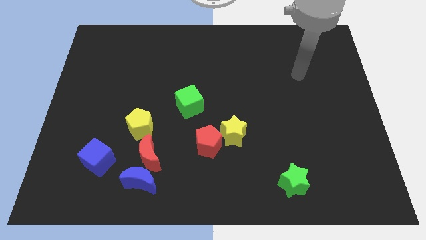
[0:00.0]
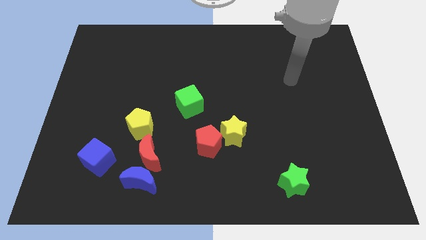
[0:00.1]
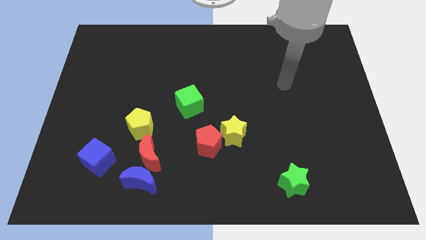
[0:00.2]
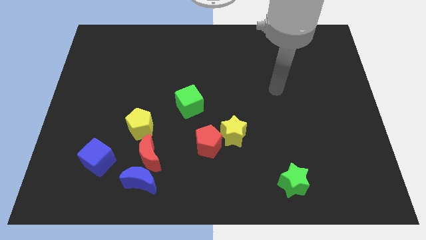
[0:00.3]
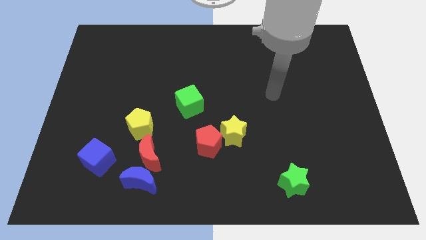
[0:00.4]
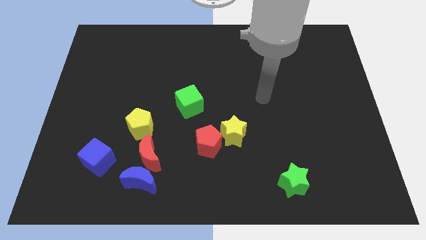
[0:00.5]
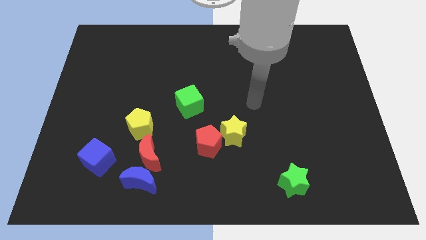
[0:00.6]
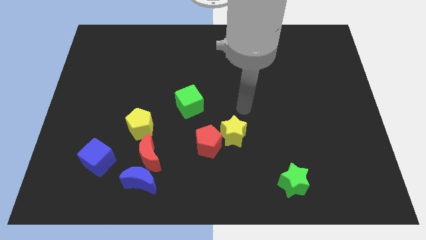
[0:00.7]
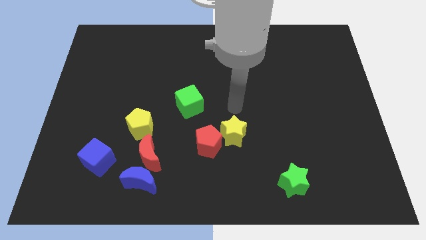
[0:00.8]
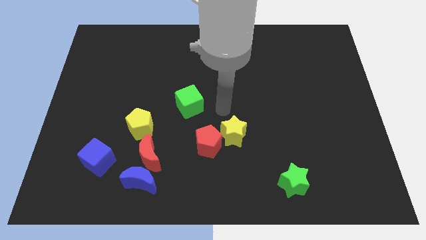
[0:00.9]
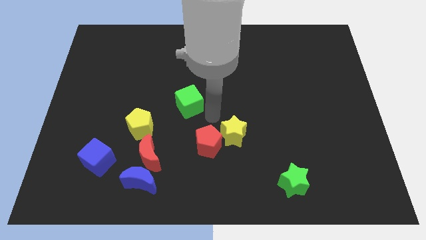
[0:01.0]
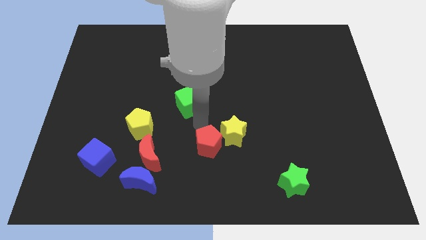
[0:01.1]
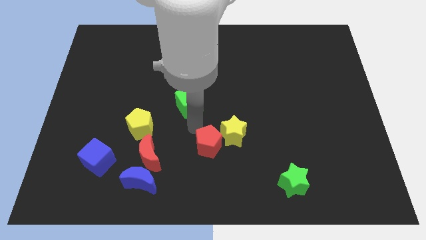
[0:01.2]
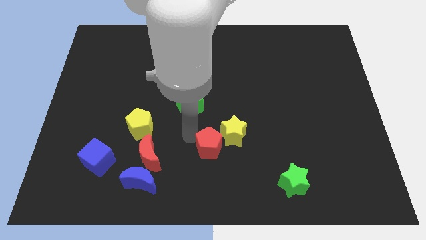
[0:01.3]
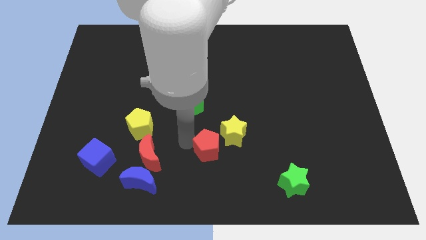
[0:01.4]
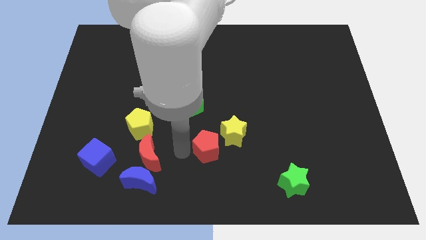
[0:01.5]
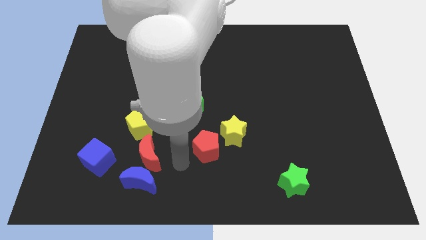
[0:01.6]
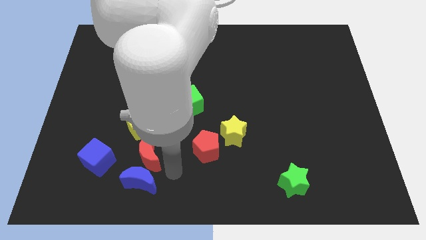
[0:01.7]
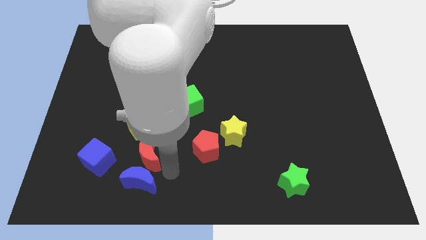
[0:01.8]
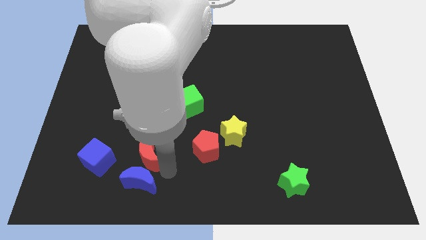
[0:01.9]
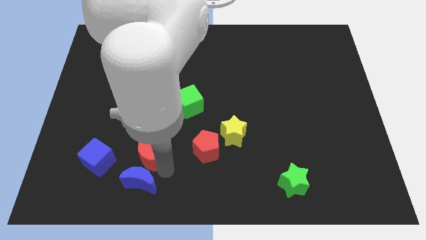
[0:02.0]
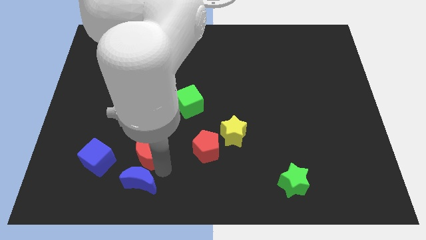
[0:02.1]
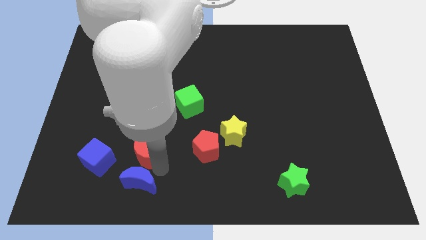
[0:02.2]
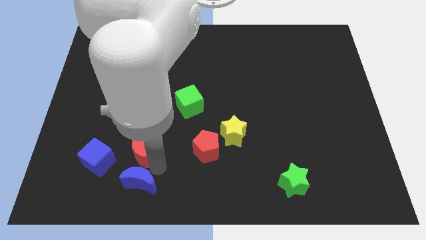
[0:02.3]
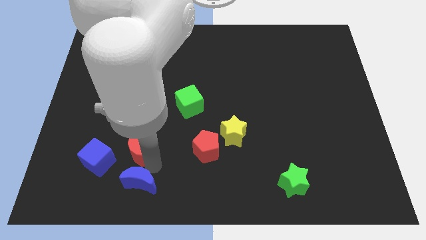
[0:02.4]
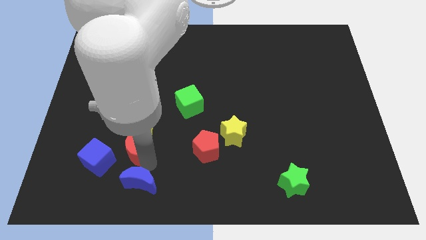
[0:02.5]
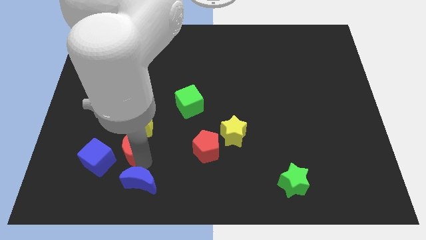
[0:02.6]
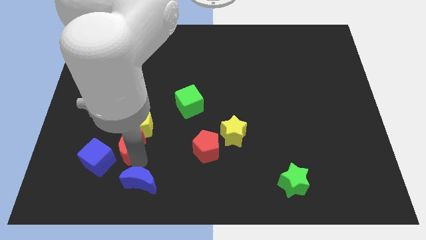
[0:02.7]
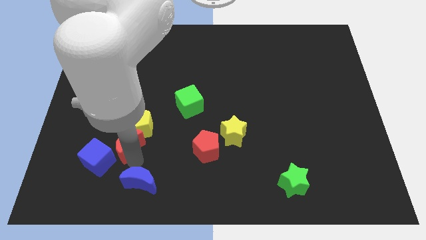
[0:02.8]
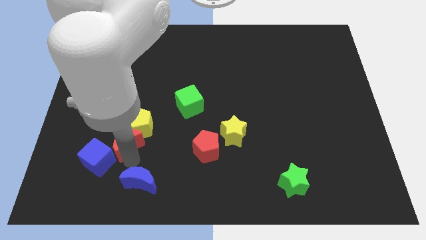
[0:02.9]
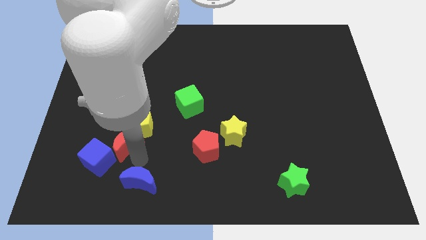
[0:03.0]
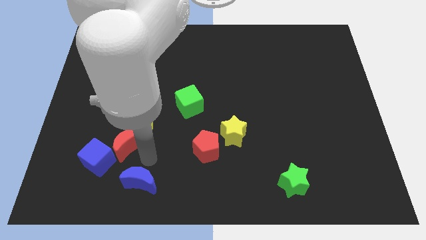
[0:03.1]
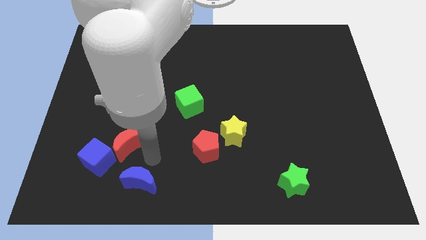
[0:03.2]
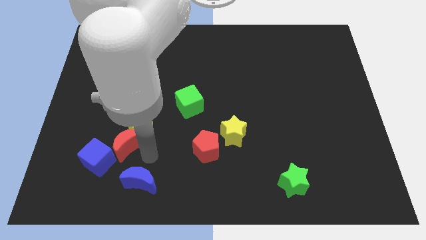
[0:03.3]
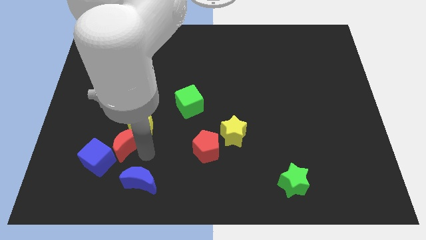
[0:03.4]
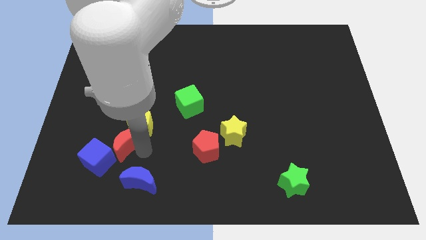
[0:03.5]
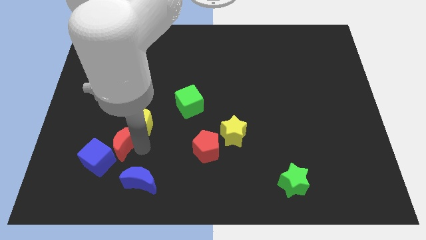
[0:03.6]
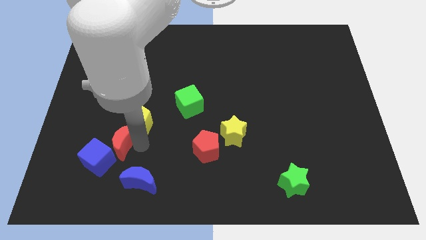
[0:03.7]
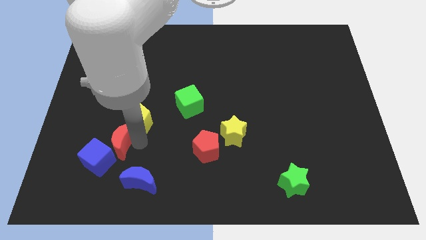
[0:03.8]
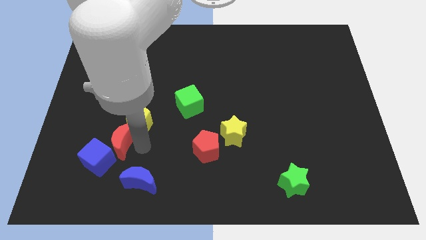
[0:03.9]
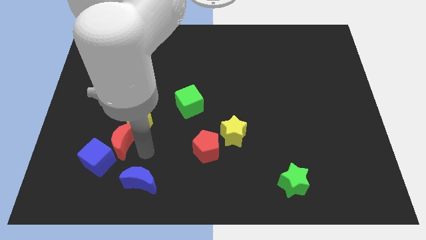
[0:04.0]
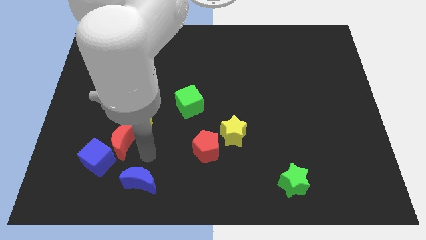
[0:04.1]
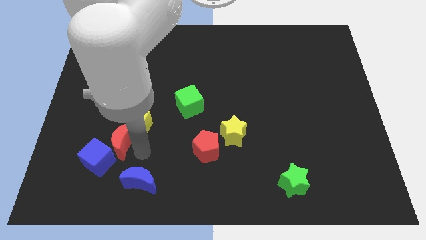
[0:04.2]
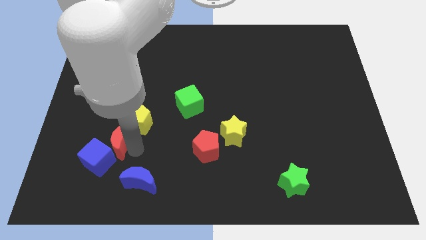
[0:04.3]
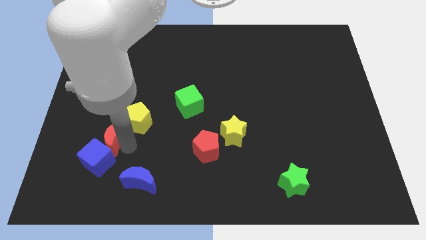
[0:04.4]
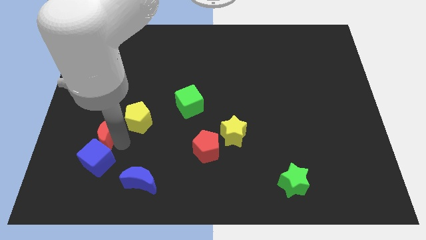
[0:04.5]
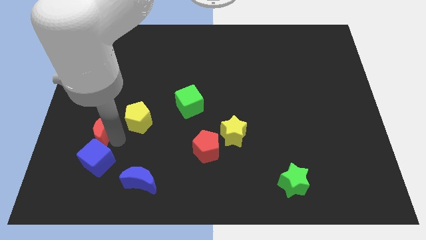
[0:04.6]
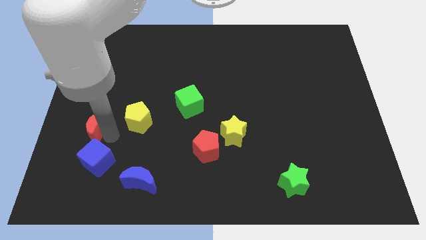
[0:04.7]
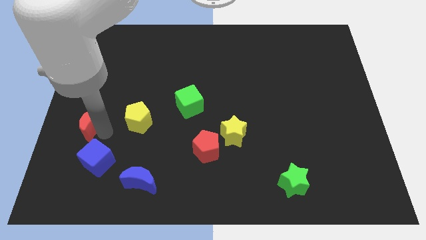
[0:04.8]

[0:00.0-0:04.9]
put the red moon to the center left

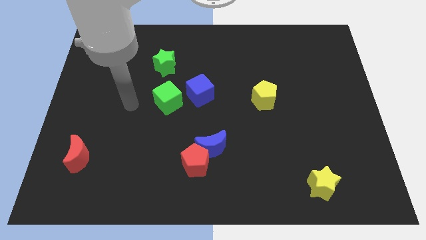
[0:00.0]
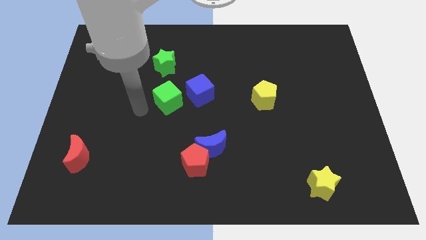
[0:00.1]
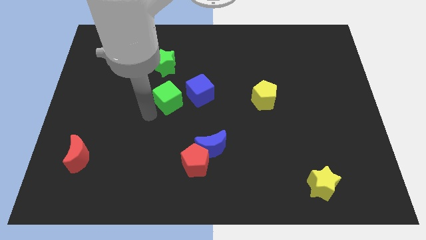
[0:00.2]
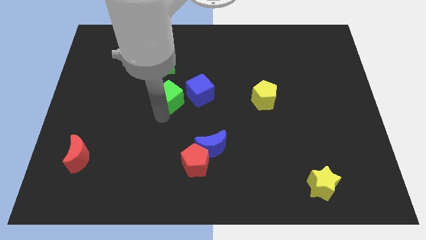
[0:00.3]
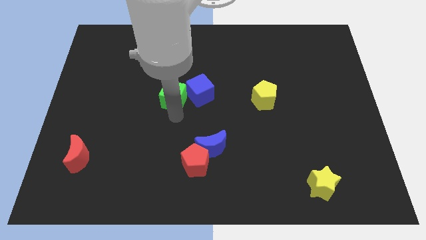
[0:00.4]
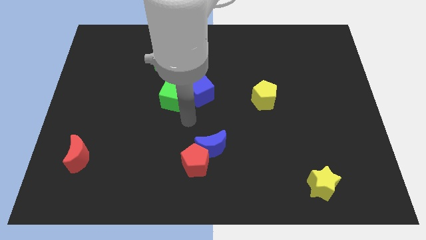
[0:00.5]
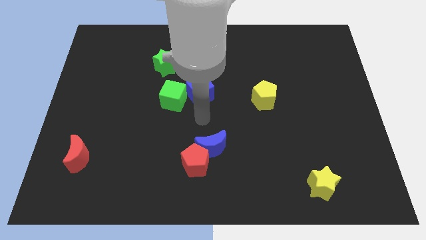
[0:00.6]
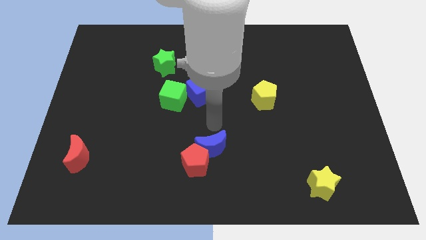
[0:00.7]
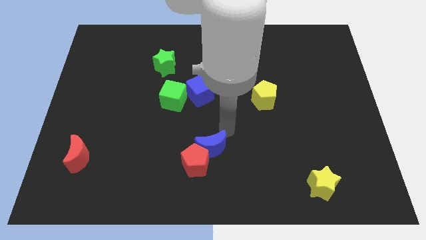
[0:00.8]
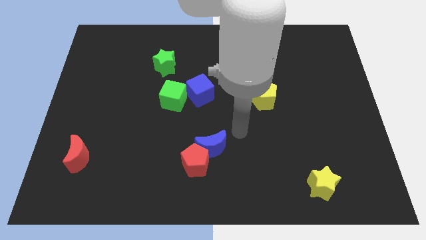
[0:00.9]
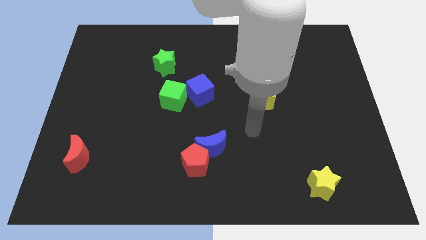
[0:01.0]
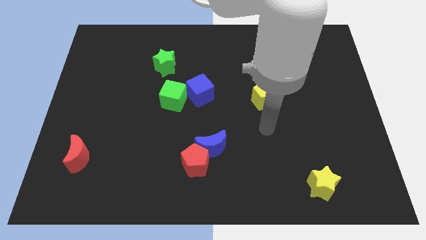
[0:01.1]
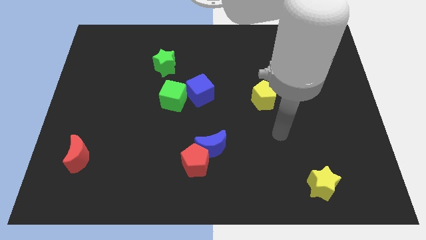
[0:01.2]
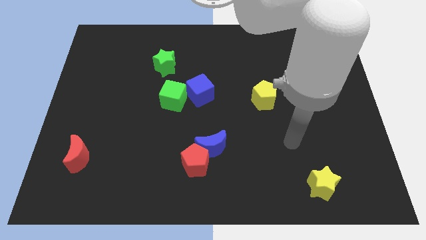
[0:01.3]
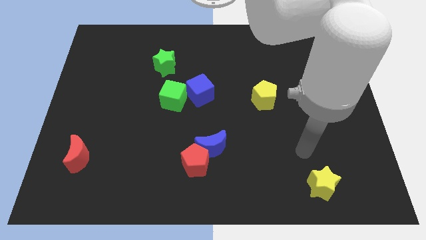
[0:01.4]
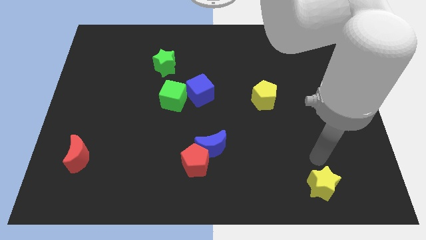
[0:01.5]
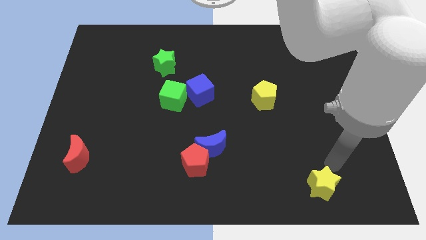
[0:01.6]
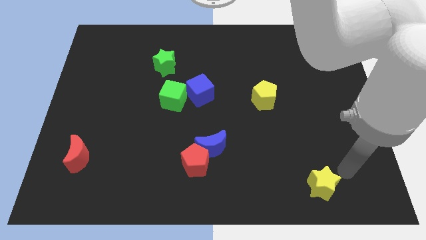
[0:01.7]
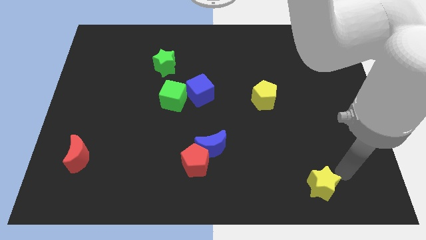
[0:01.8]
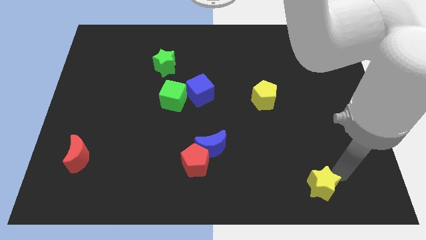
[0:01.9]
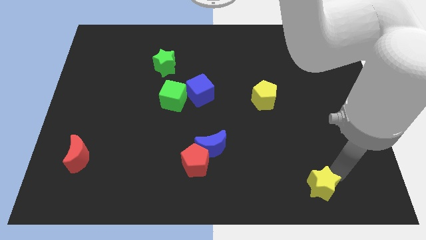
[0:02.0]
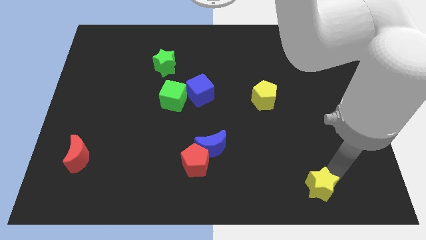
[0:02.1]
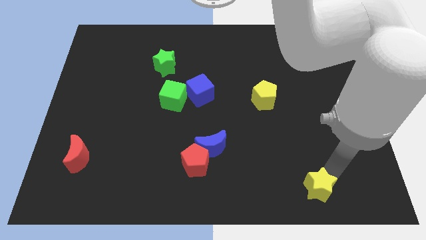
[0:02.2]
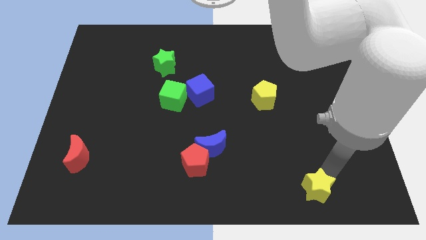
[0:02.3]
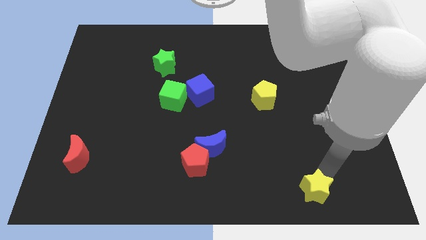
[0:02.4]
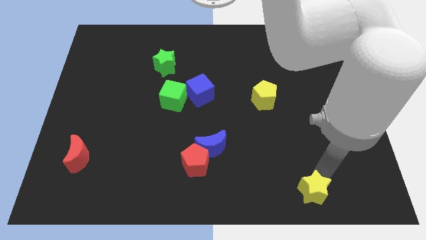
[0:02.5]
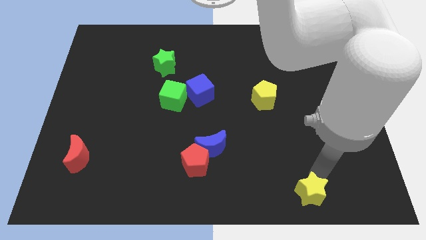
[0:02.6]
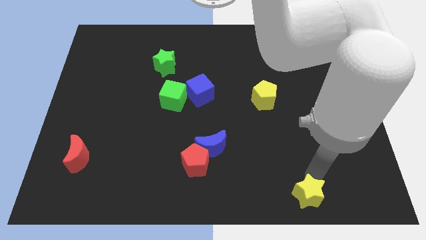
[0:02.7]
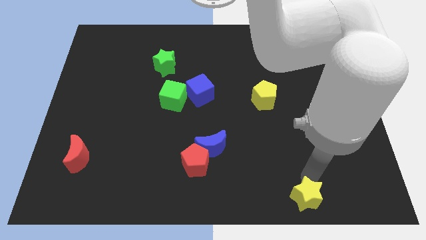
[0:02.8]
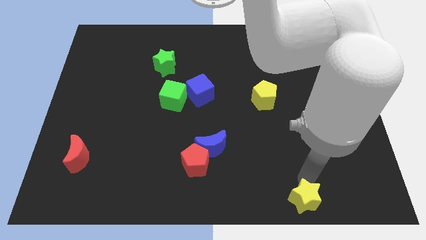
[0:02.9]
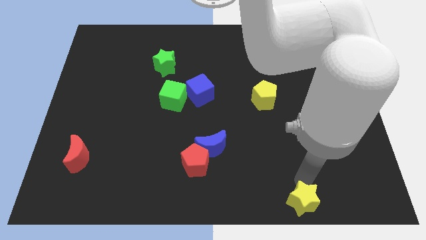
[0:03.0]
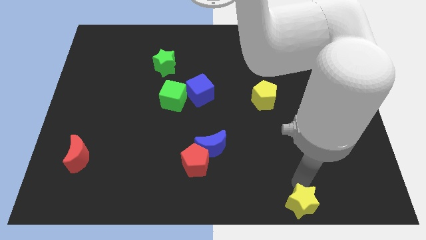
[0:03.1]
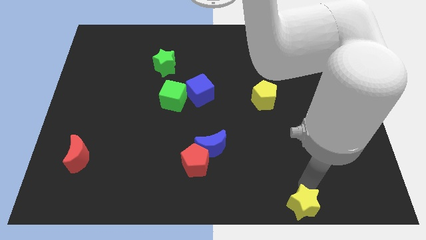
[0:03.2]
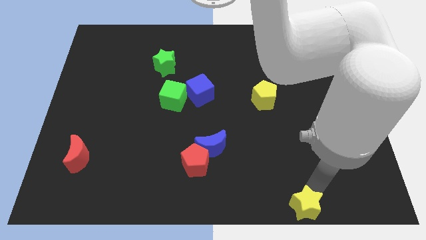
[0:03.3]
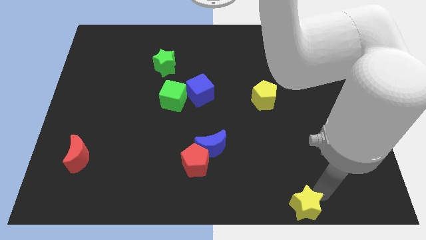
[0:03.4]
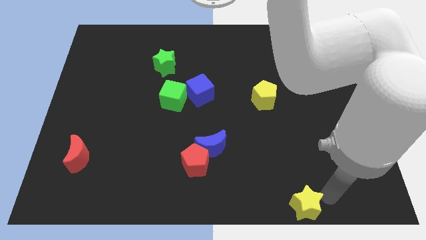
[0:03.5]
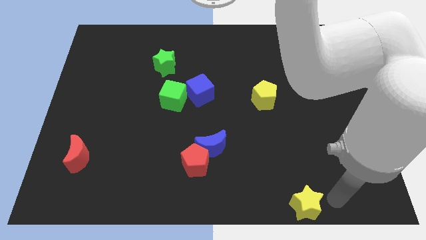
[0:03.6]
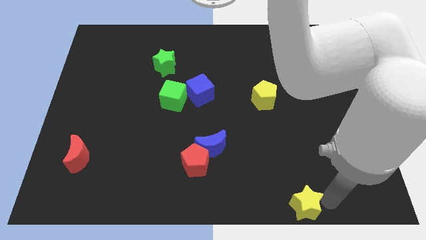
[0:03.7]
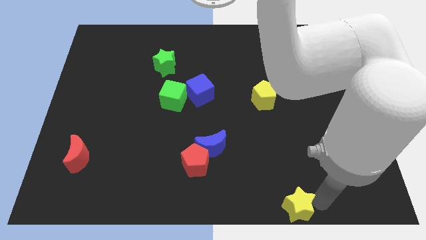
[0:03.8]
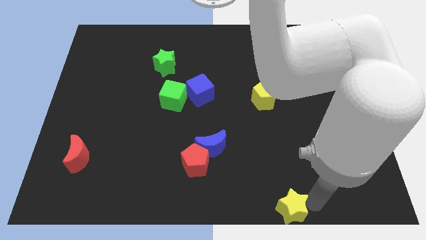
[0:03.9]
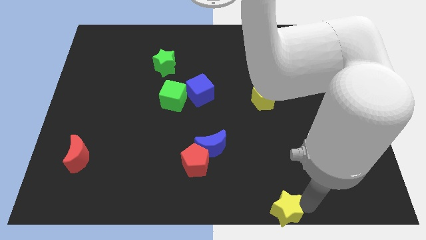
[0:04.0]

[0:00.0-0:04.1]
slide the yellow star to the bottom side
